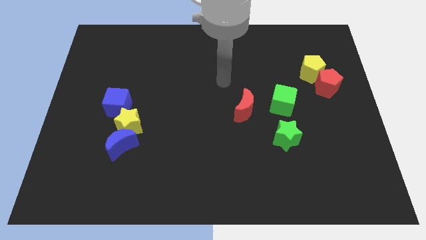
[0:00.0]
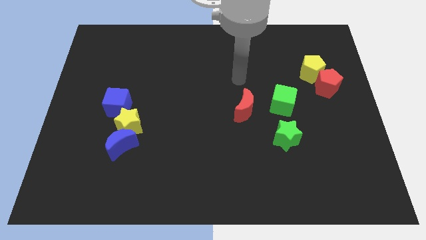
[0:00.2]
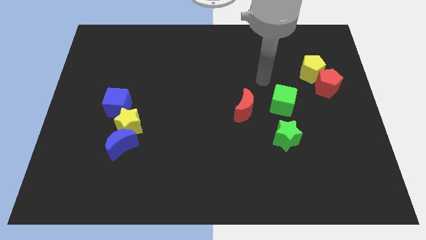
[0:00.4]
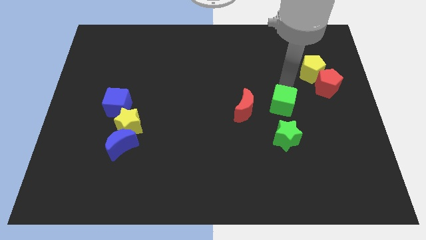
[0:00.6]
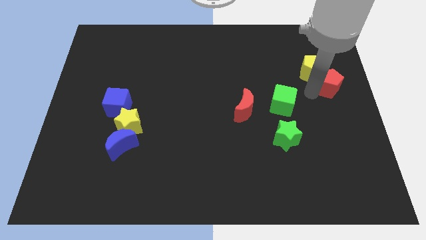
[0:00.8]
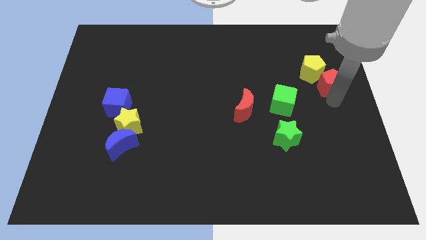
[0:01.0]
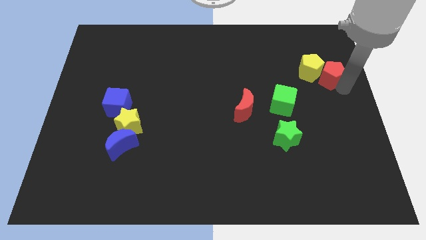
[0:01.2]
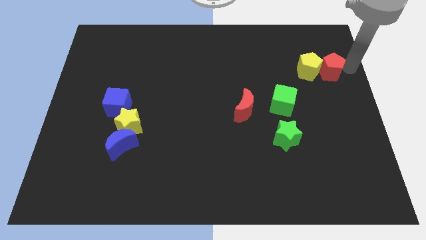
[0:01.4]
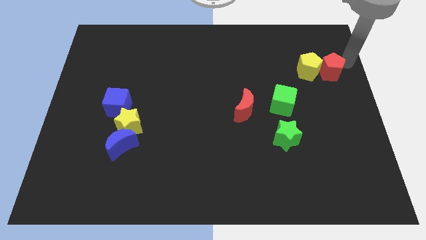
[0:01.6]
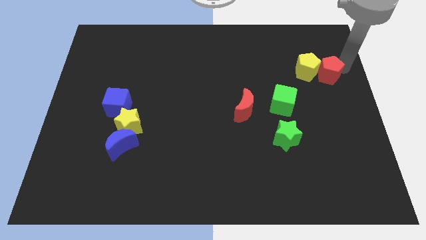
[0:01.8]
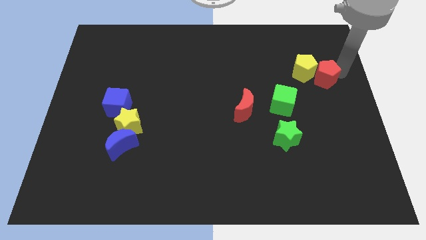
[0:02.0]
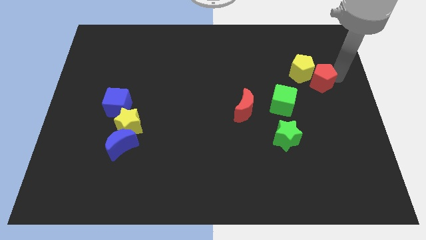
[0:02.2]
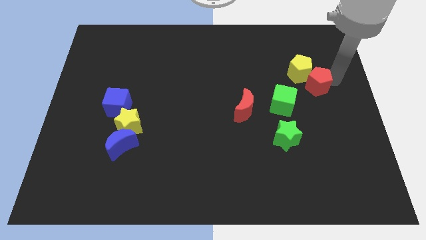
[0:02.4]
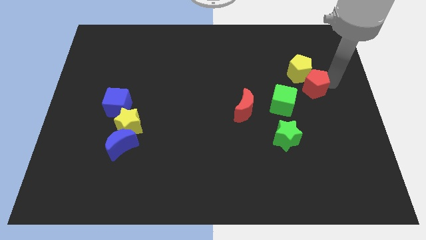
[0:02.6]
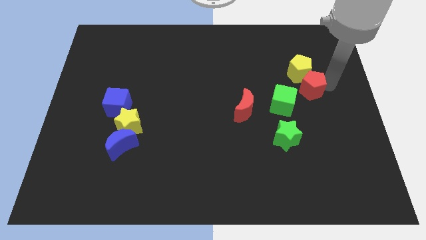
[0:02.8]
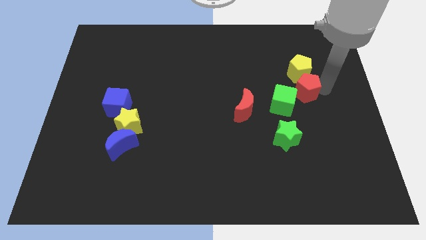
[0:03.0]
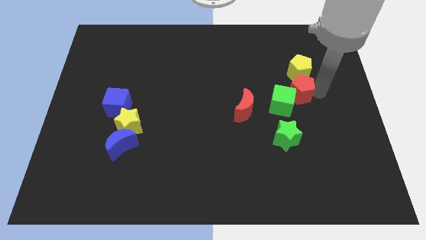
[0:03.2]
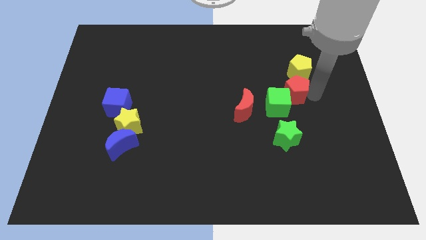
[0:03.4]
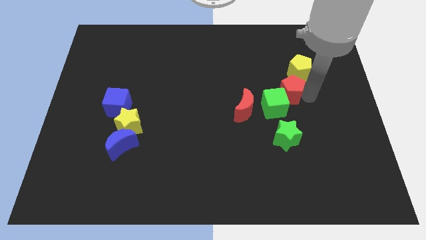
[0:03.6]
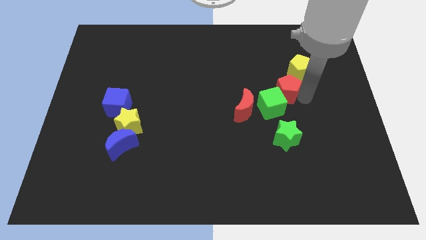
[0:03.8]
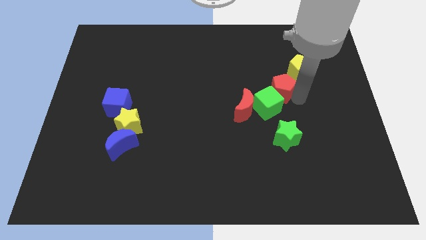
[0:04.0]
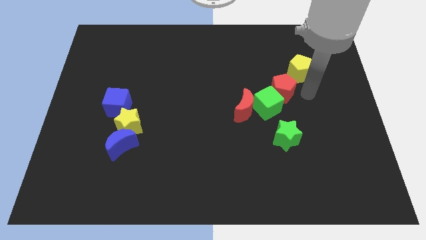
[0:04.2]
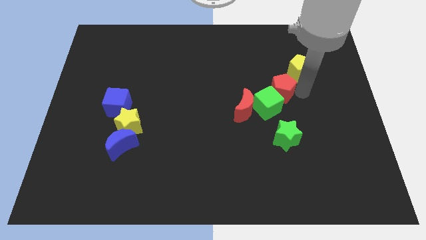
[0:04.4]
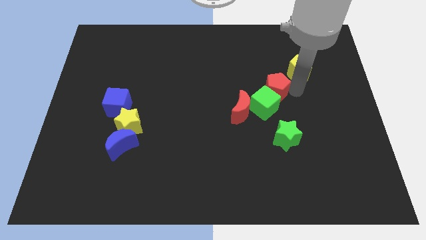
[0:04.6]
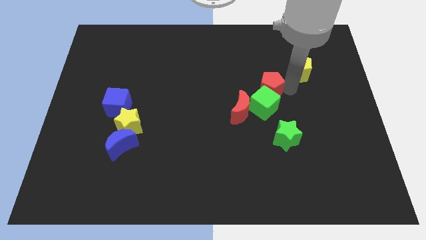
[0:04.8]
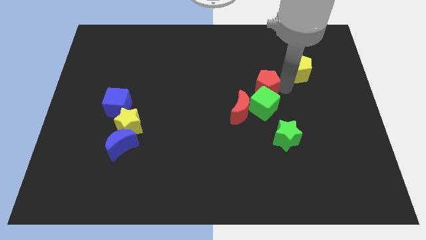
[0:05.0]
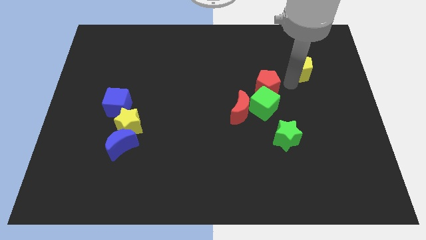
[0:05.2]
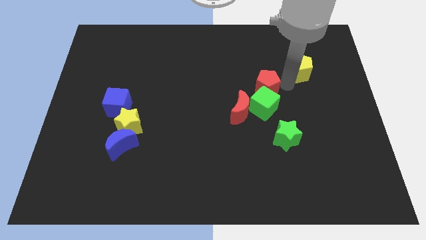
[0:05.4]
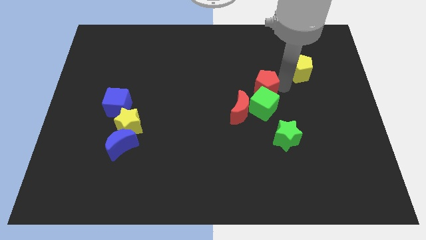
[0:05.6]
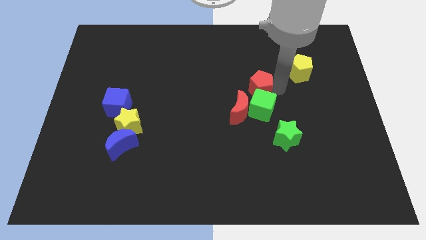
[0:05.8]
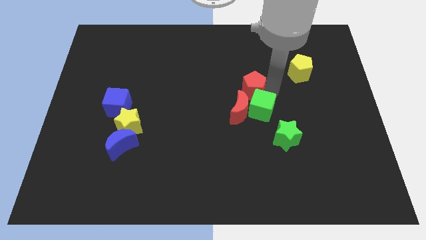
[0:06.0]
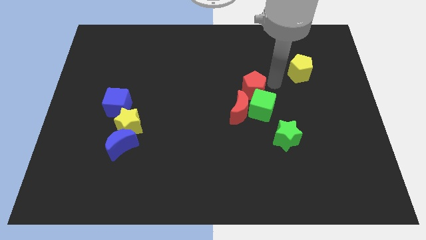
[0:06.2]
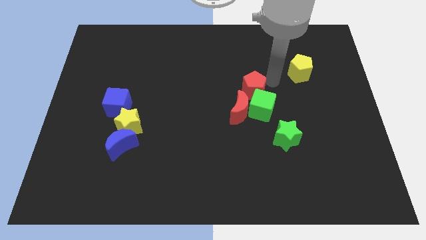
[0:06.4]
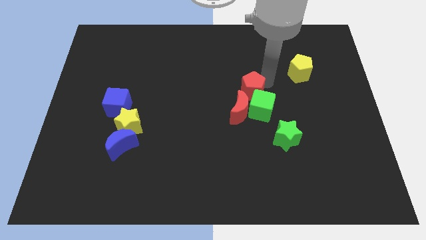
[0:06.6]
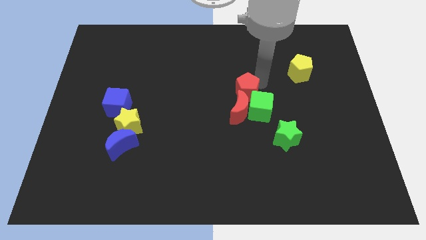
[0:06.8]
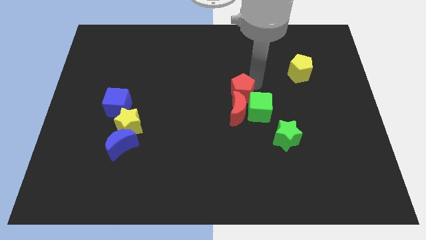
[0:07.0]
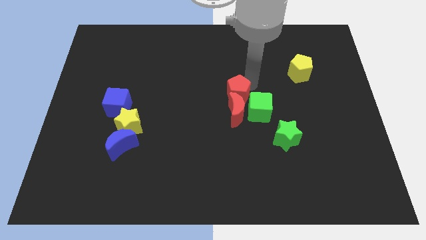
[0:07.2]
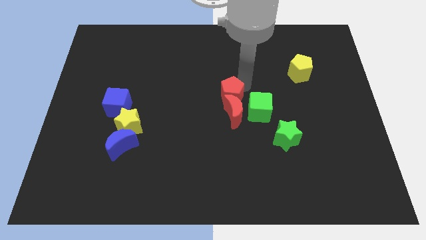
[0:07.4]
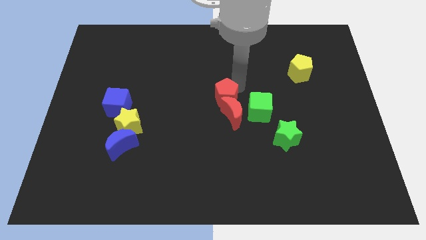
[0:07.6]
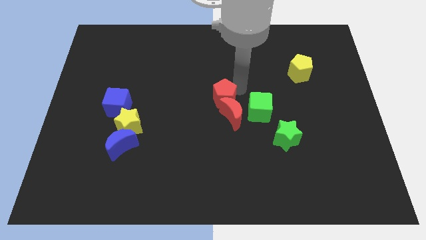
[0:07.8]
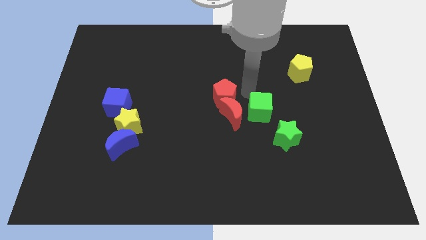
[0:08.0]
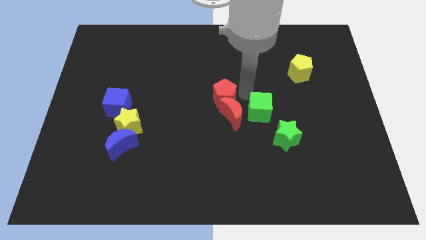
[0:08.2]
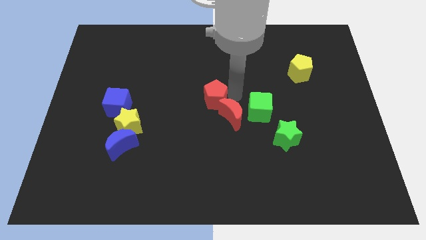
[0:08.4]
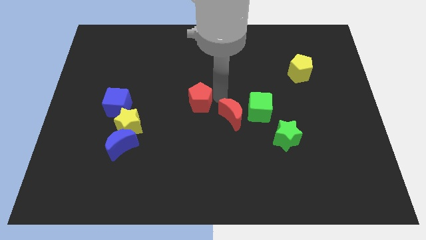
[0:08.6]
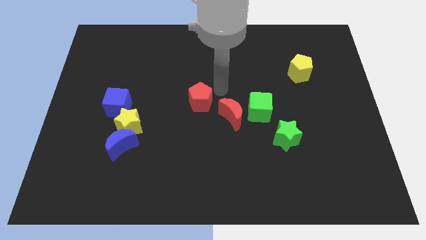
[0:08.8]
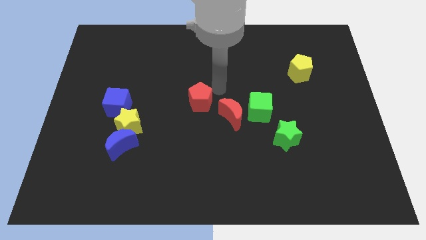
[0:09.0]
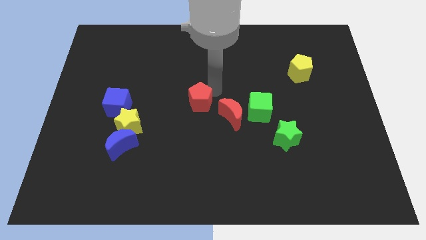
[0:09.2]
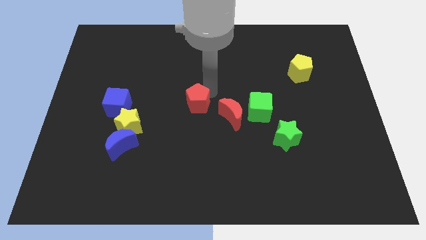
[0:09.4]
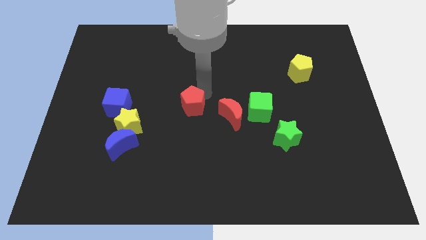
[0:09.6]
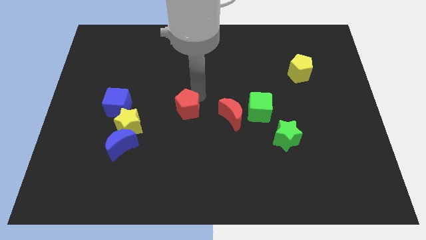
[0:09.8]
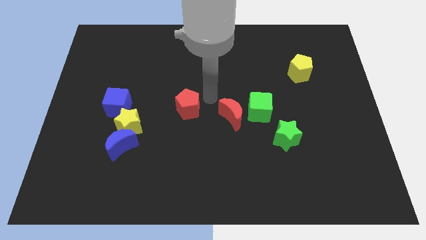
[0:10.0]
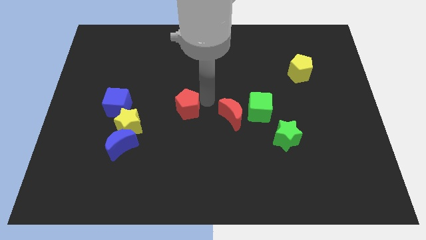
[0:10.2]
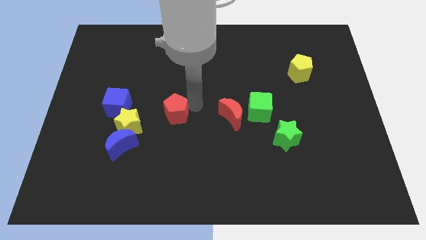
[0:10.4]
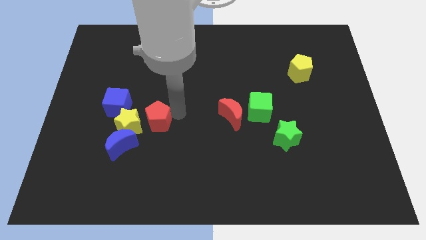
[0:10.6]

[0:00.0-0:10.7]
put the red pentagon to the yellow star

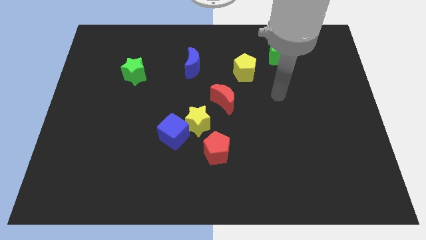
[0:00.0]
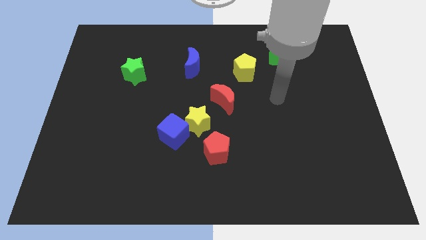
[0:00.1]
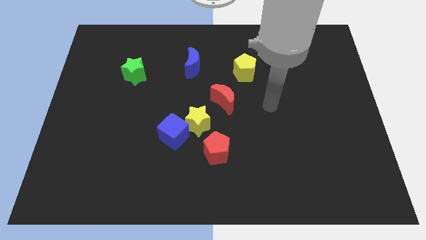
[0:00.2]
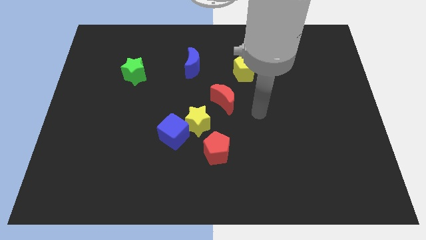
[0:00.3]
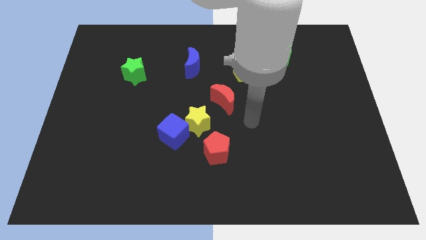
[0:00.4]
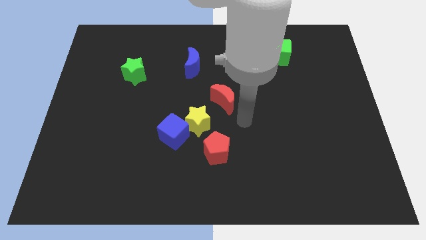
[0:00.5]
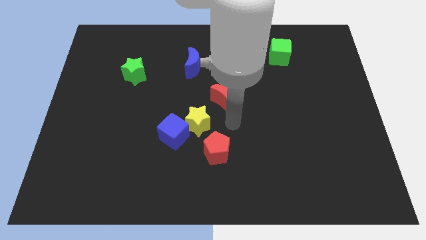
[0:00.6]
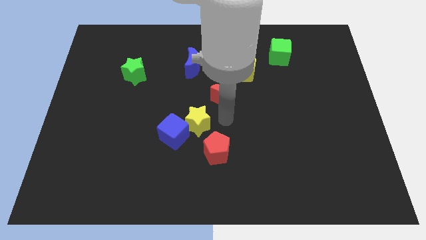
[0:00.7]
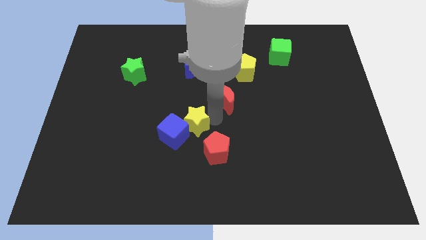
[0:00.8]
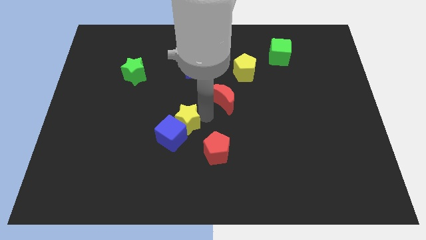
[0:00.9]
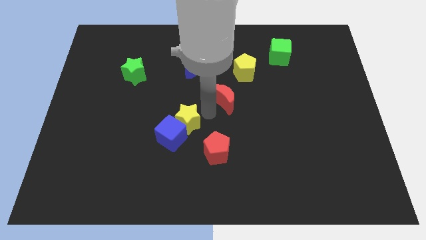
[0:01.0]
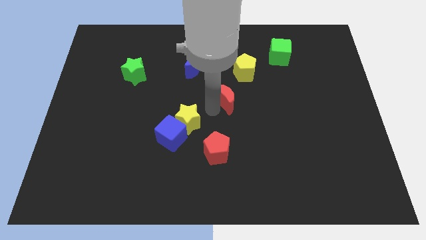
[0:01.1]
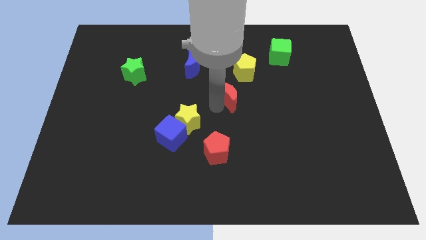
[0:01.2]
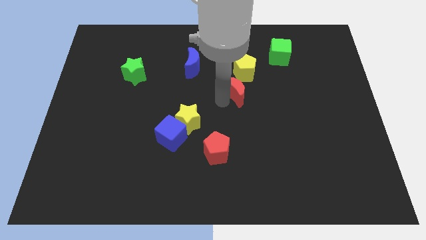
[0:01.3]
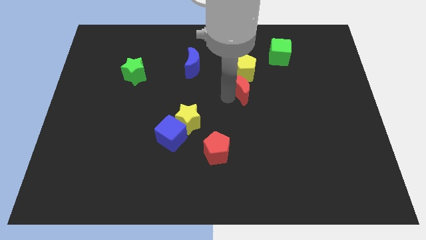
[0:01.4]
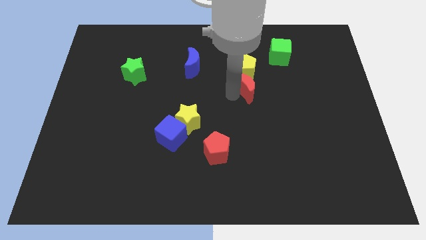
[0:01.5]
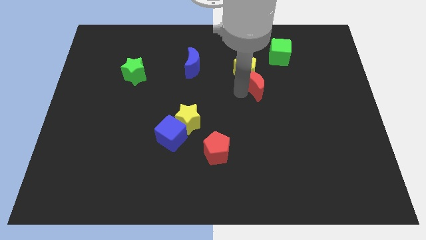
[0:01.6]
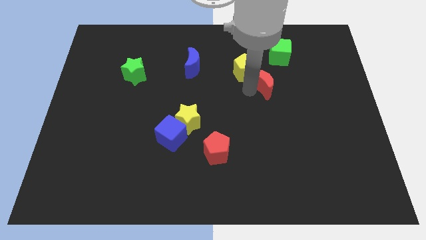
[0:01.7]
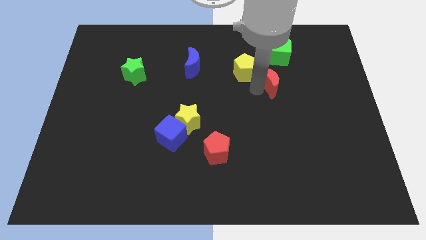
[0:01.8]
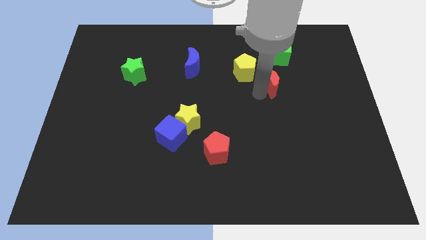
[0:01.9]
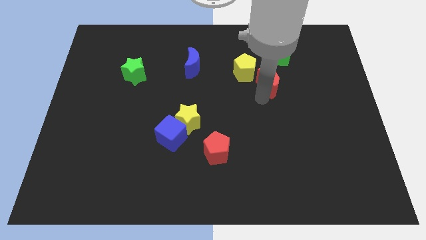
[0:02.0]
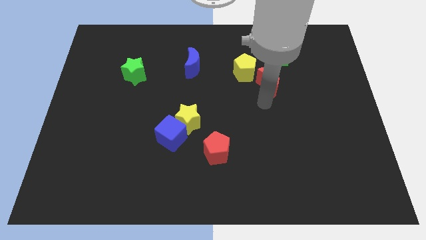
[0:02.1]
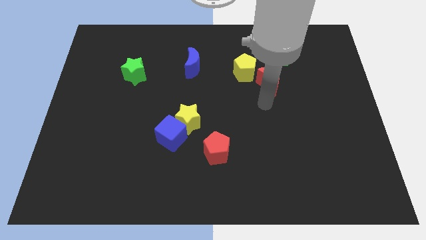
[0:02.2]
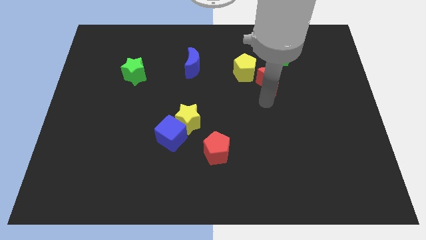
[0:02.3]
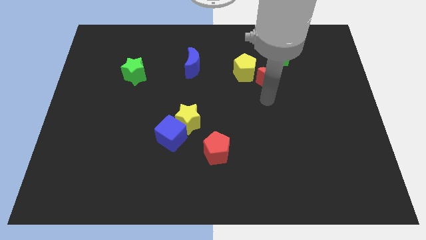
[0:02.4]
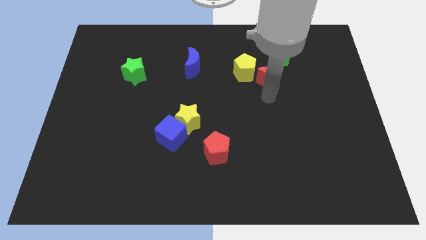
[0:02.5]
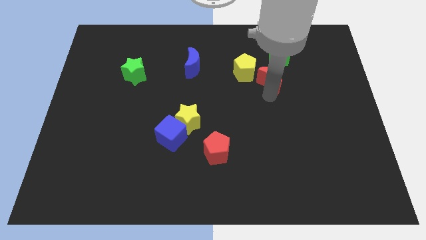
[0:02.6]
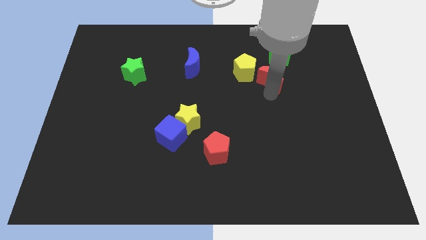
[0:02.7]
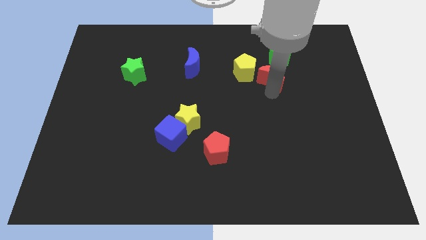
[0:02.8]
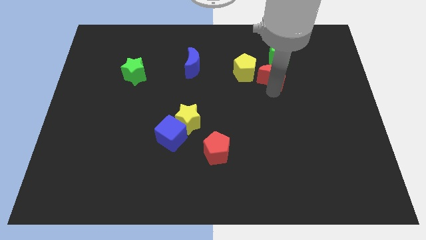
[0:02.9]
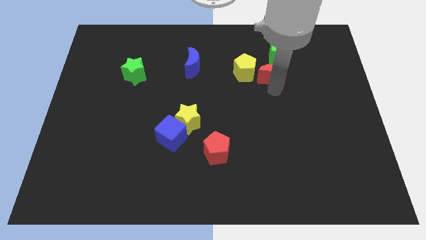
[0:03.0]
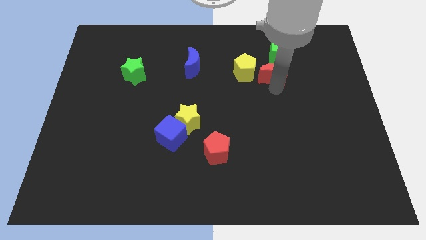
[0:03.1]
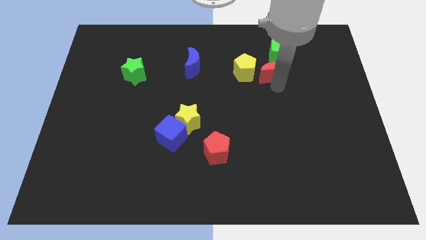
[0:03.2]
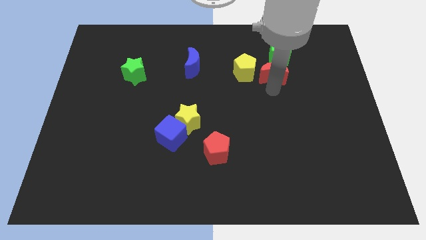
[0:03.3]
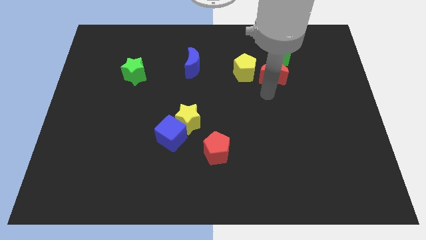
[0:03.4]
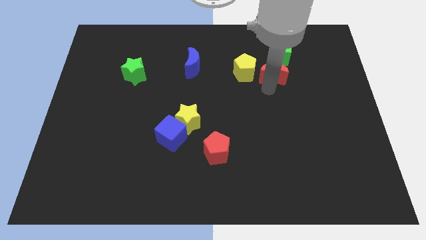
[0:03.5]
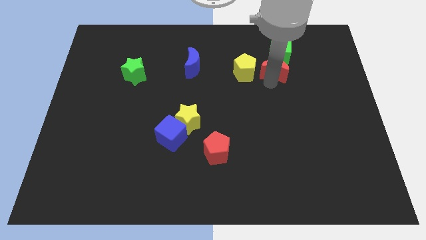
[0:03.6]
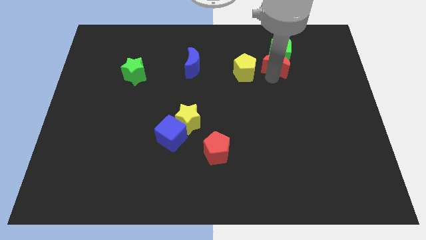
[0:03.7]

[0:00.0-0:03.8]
slide the red moon close to the green cube
